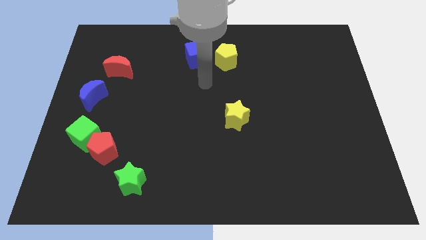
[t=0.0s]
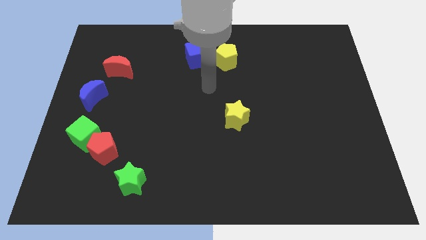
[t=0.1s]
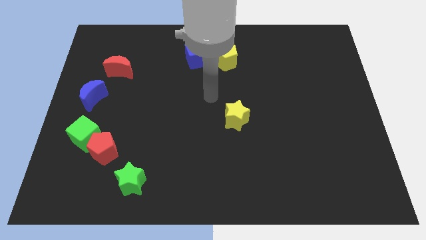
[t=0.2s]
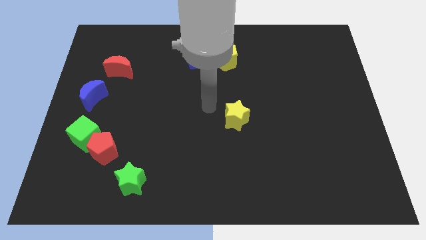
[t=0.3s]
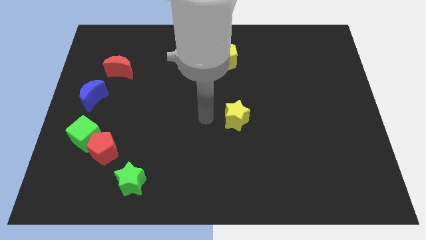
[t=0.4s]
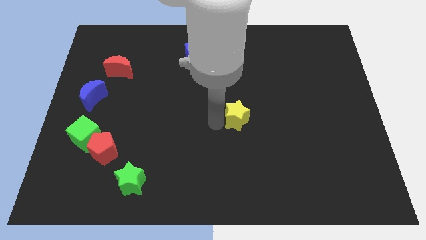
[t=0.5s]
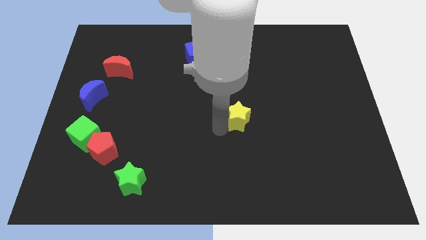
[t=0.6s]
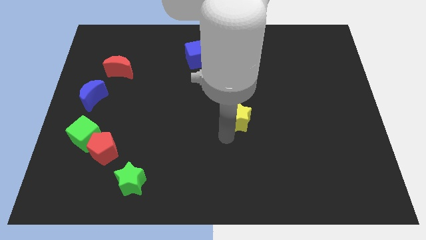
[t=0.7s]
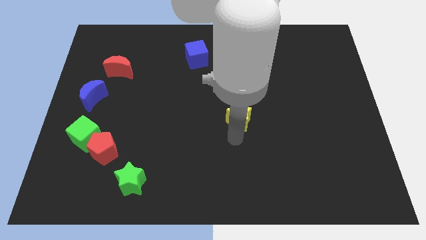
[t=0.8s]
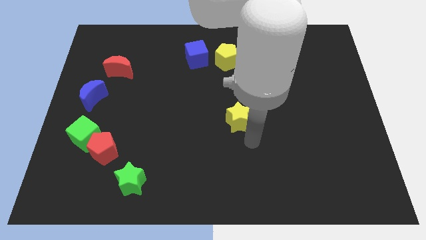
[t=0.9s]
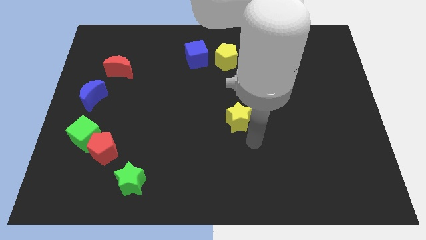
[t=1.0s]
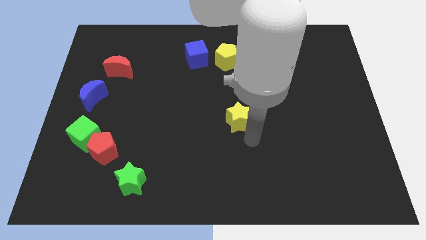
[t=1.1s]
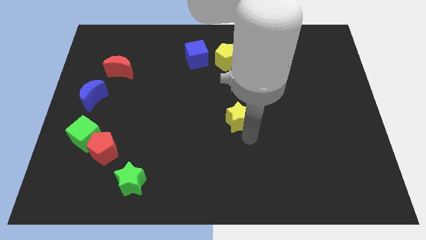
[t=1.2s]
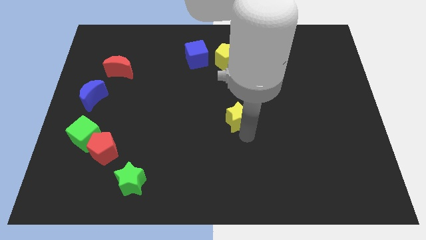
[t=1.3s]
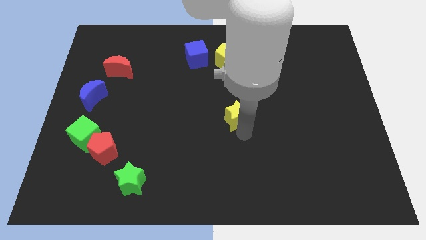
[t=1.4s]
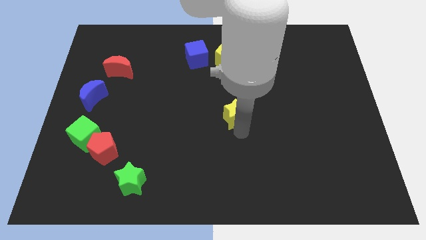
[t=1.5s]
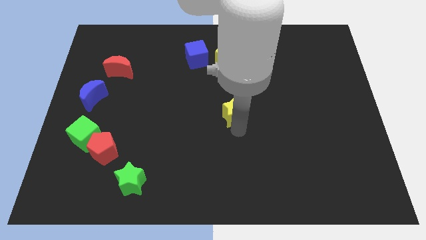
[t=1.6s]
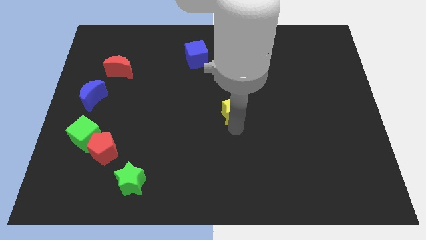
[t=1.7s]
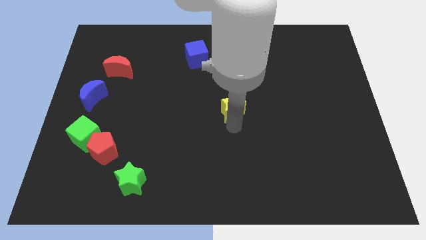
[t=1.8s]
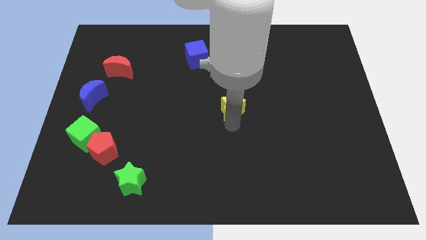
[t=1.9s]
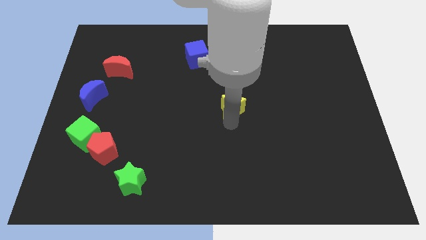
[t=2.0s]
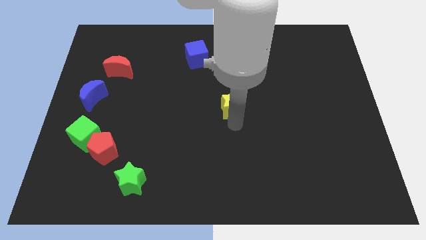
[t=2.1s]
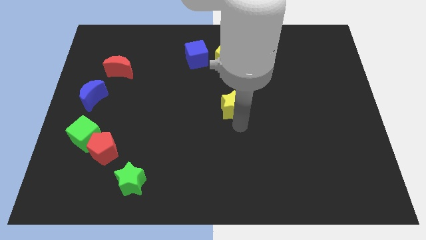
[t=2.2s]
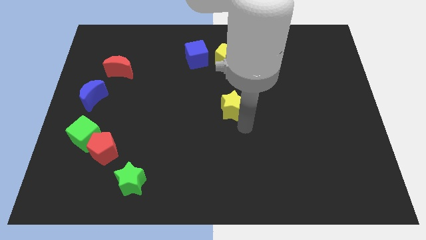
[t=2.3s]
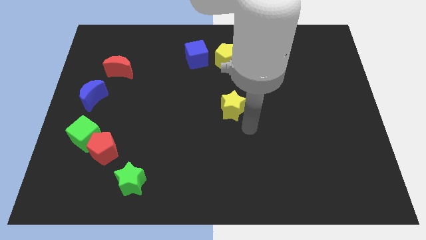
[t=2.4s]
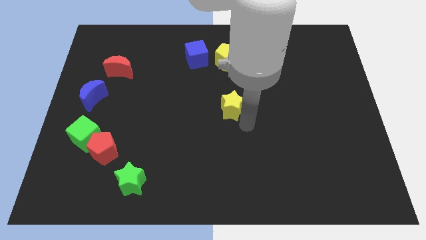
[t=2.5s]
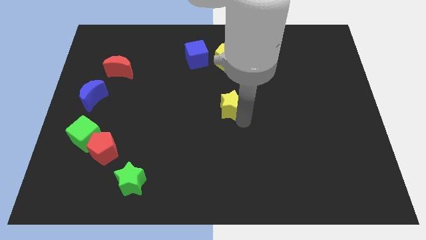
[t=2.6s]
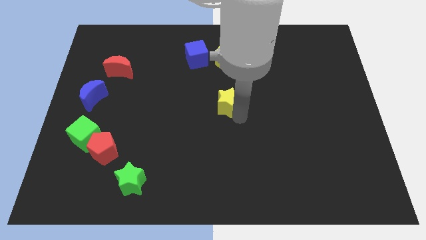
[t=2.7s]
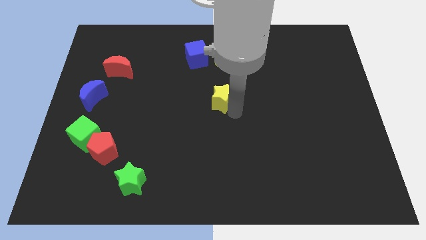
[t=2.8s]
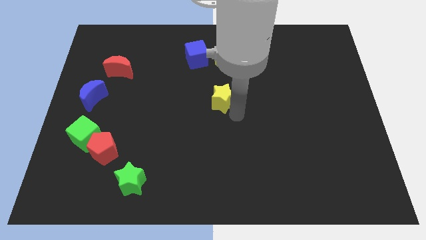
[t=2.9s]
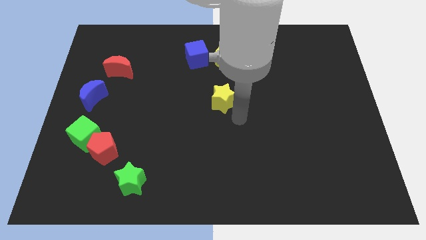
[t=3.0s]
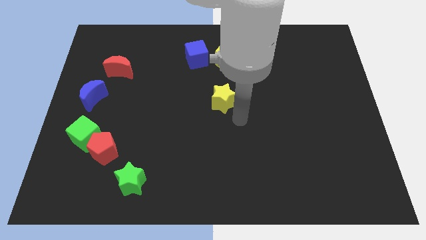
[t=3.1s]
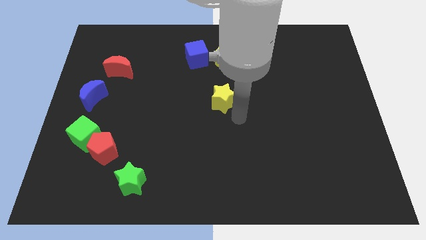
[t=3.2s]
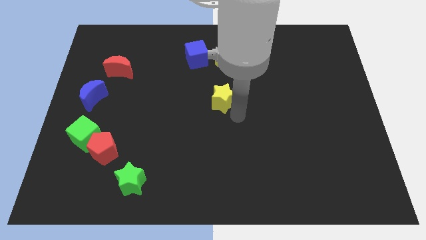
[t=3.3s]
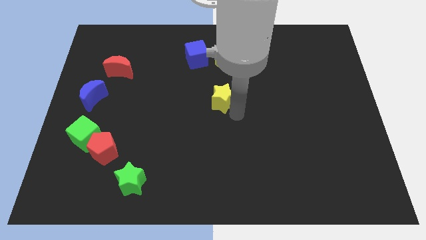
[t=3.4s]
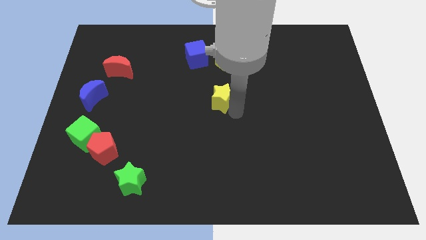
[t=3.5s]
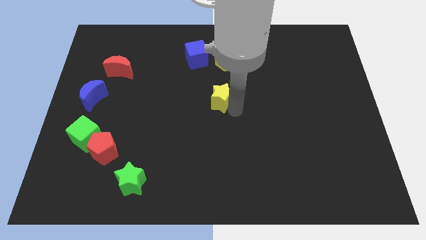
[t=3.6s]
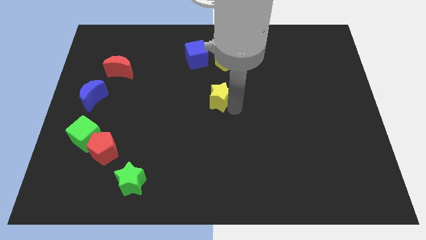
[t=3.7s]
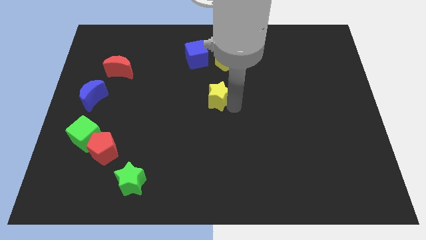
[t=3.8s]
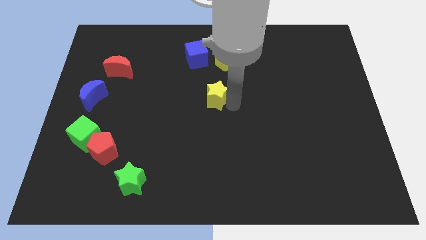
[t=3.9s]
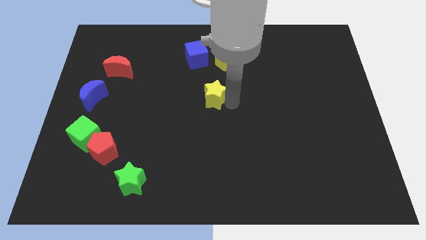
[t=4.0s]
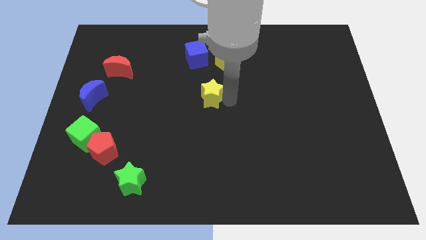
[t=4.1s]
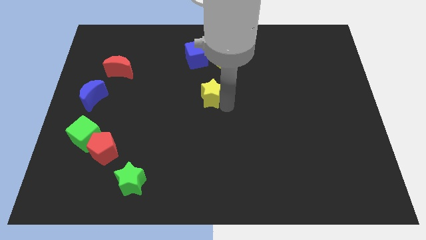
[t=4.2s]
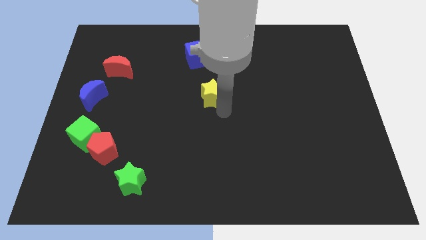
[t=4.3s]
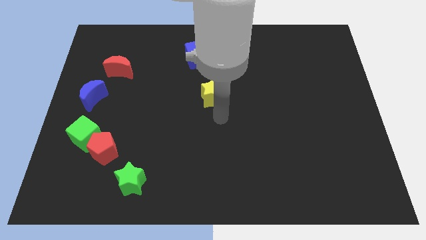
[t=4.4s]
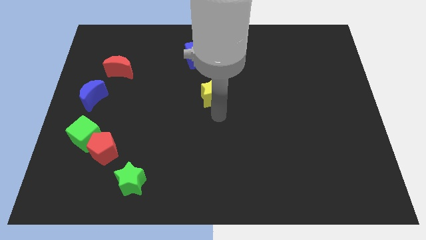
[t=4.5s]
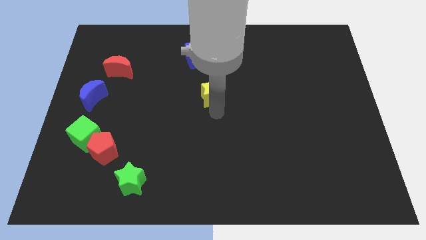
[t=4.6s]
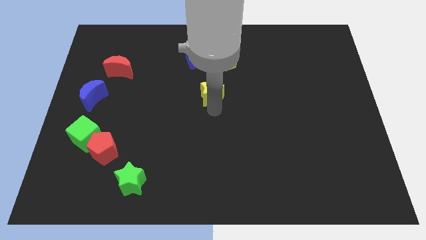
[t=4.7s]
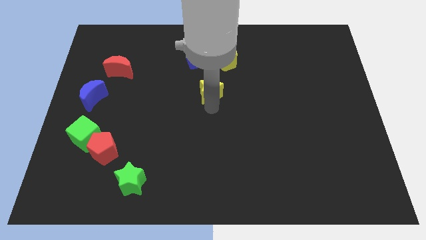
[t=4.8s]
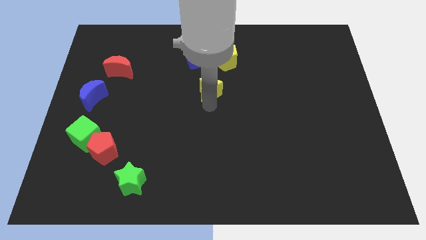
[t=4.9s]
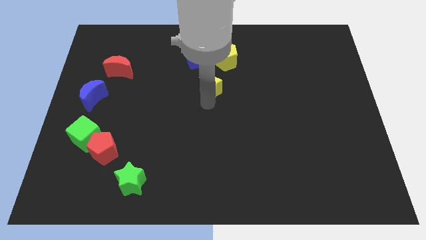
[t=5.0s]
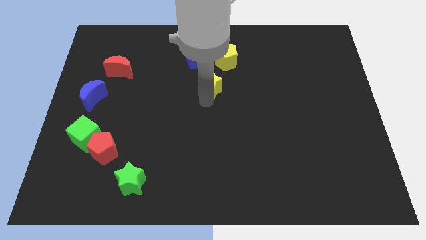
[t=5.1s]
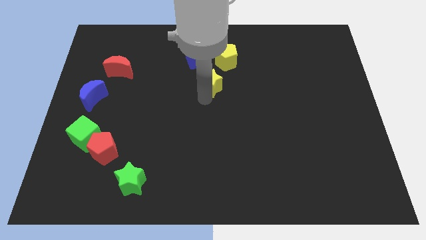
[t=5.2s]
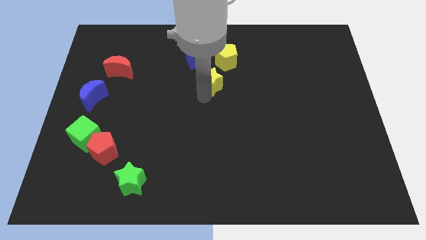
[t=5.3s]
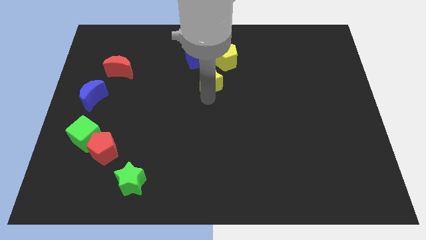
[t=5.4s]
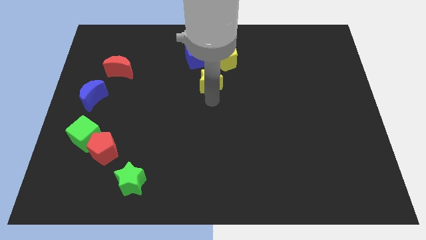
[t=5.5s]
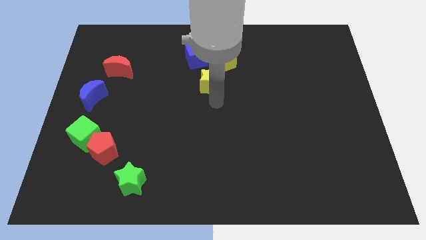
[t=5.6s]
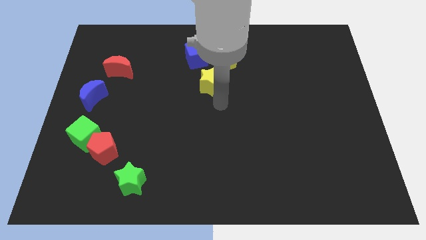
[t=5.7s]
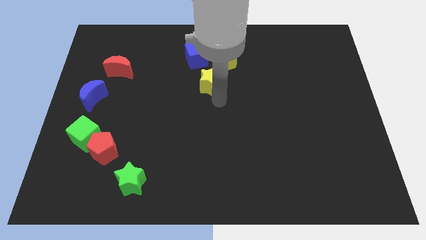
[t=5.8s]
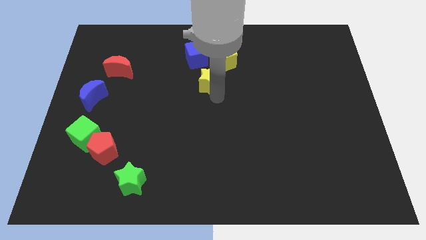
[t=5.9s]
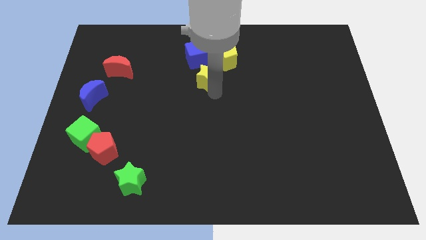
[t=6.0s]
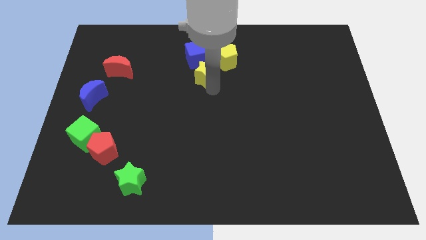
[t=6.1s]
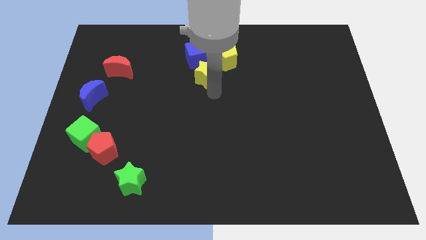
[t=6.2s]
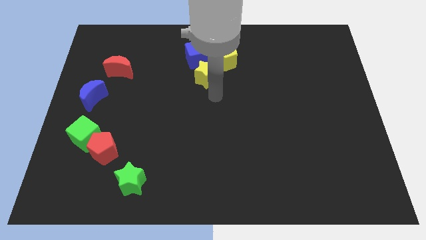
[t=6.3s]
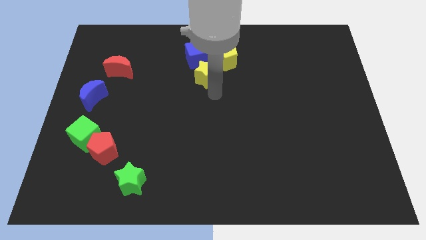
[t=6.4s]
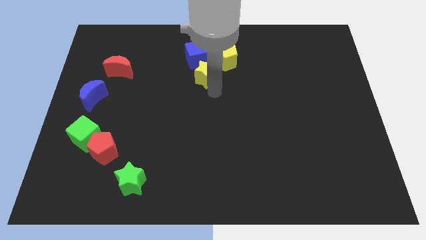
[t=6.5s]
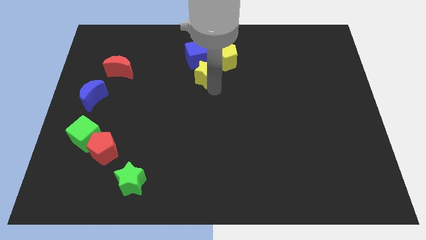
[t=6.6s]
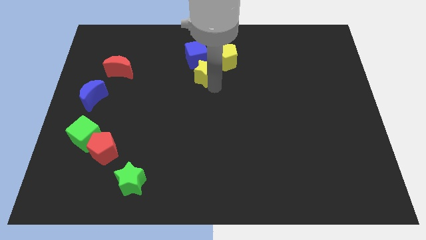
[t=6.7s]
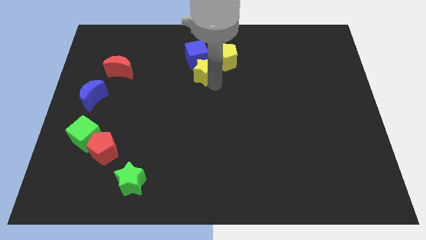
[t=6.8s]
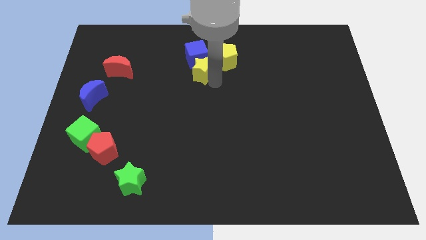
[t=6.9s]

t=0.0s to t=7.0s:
put the yellow star towards the blue cube

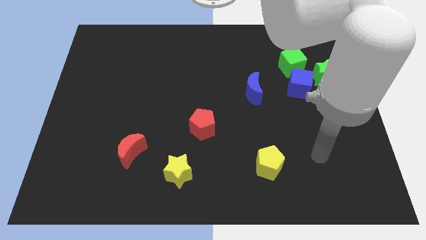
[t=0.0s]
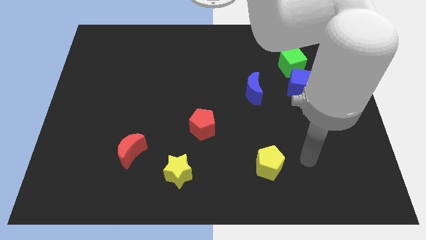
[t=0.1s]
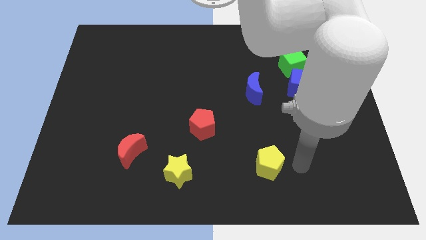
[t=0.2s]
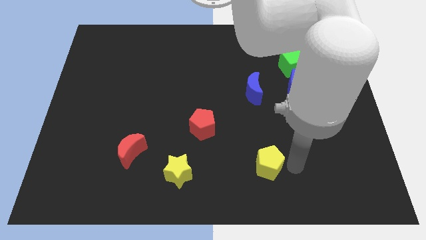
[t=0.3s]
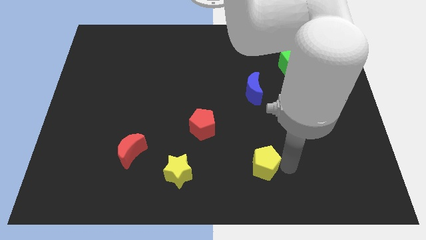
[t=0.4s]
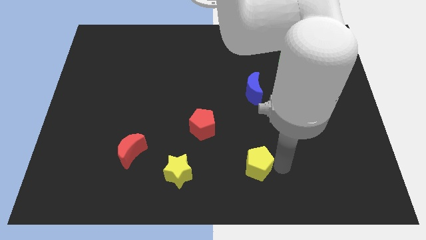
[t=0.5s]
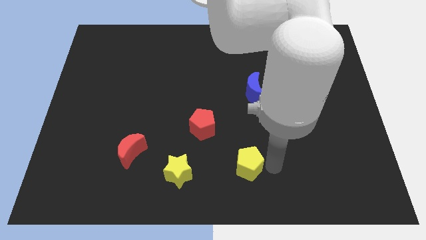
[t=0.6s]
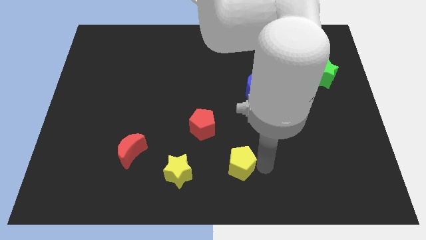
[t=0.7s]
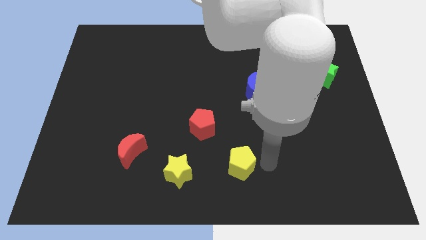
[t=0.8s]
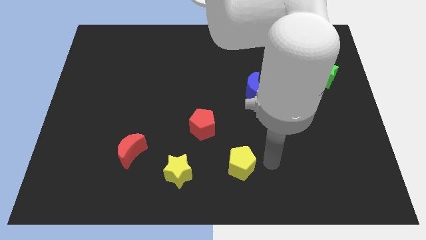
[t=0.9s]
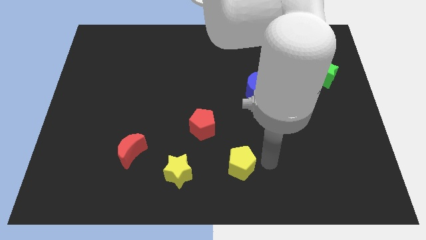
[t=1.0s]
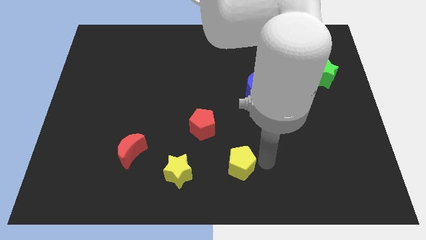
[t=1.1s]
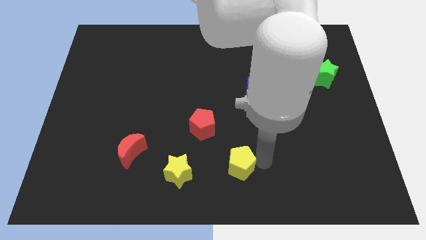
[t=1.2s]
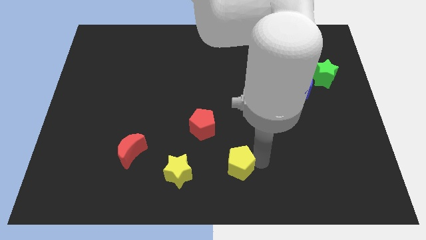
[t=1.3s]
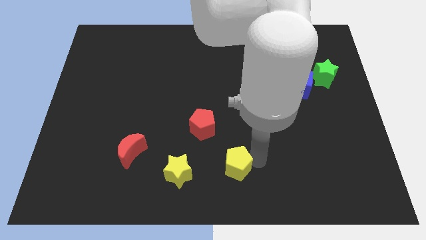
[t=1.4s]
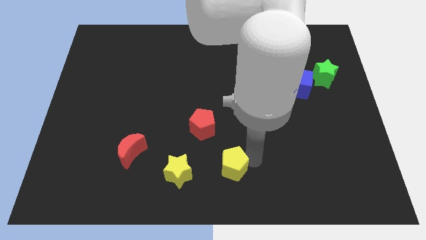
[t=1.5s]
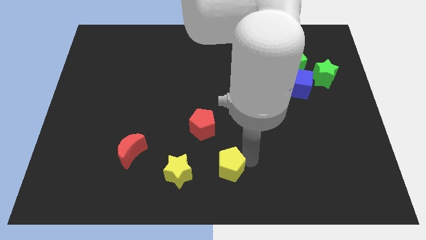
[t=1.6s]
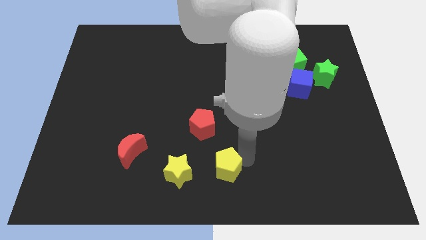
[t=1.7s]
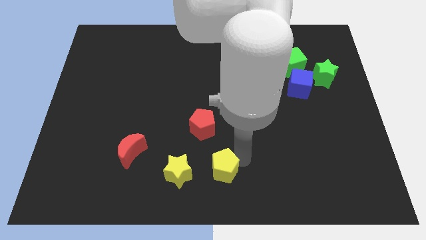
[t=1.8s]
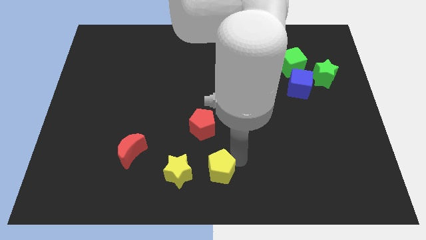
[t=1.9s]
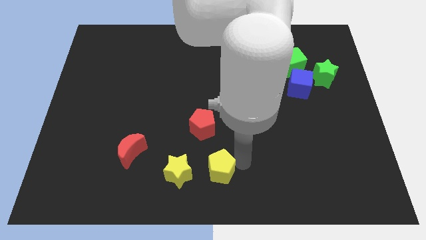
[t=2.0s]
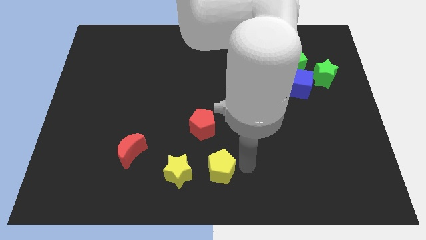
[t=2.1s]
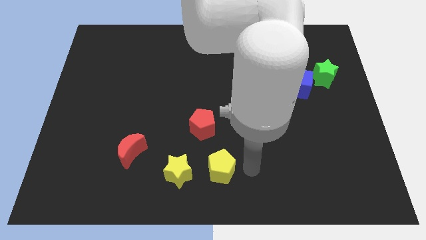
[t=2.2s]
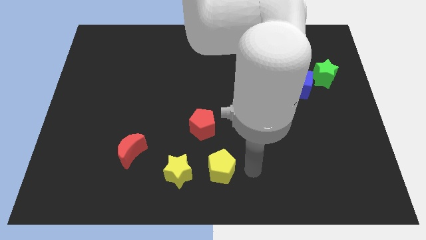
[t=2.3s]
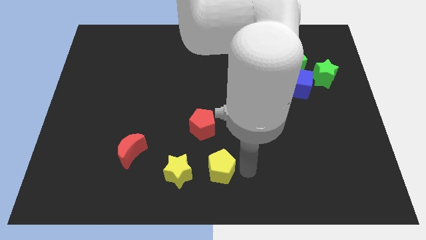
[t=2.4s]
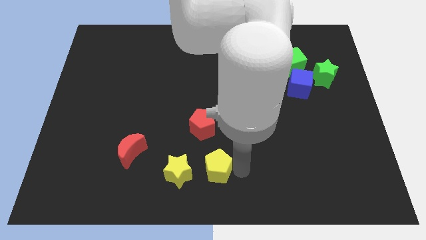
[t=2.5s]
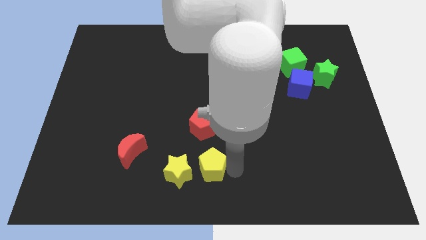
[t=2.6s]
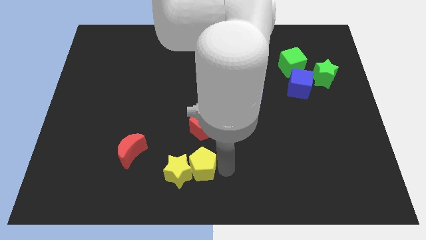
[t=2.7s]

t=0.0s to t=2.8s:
push the yellow pentagon to the yellow star
